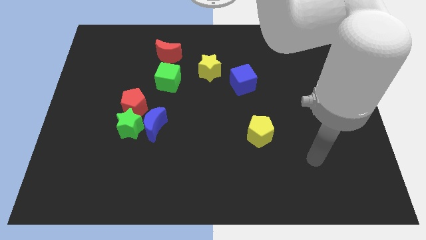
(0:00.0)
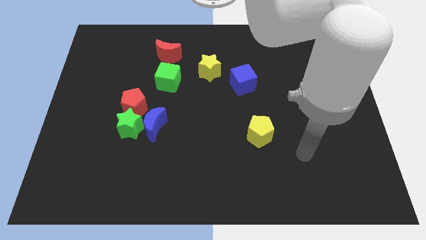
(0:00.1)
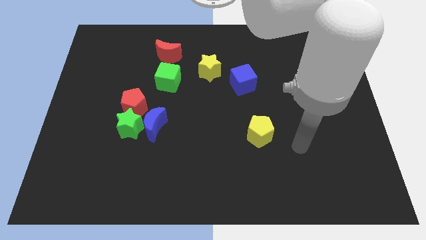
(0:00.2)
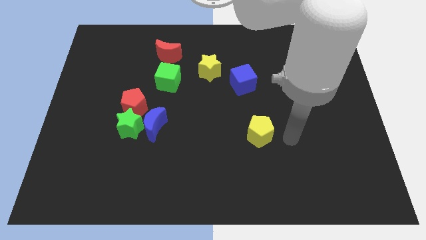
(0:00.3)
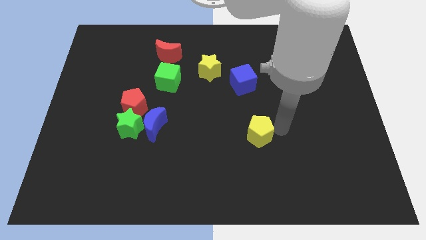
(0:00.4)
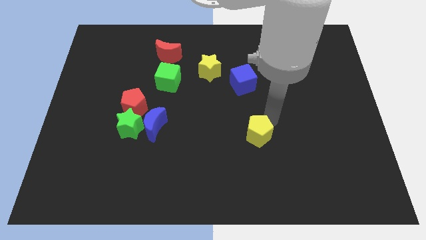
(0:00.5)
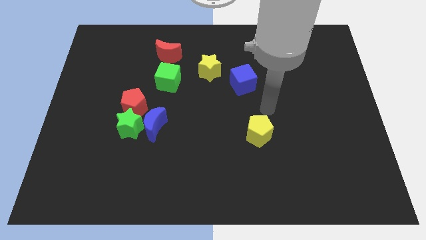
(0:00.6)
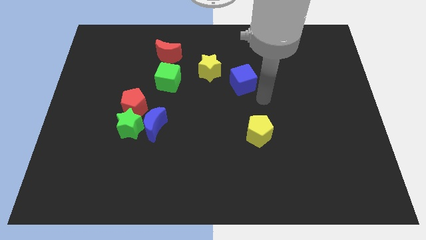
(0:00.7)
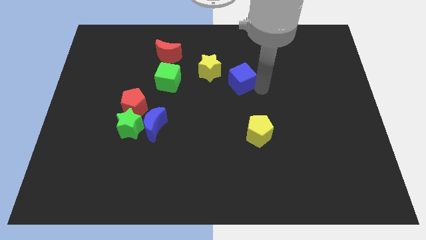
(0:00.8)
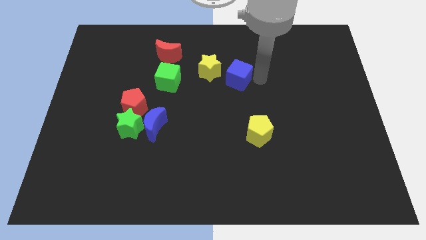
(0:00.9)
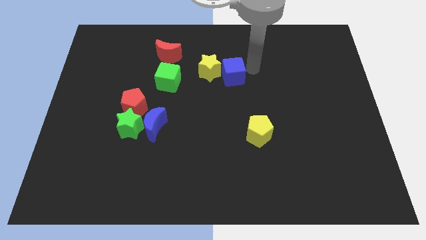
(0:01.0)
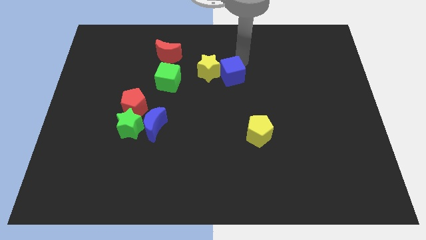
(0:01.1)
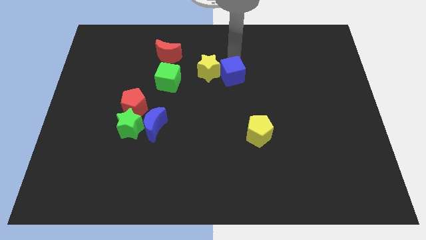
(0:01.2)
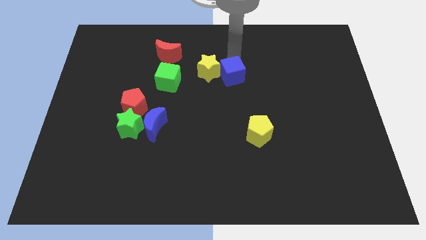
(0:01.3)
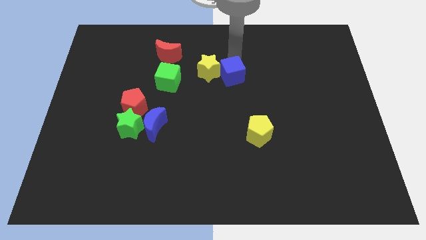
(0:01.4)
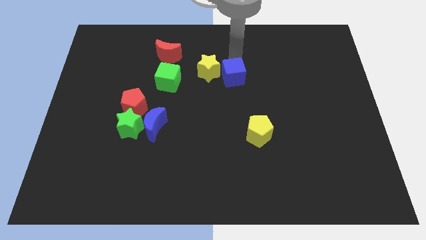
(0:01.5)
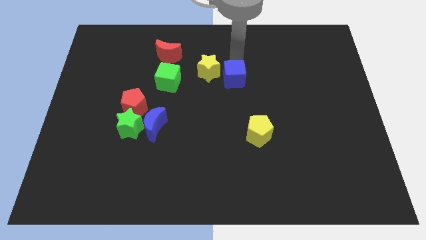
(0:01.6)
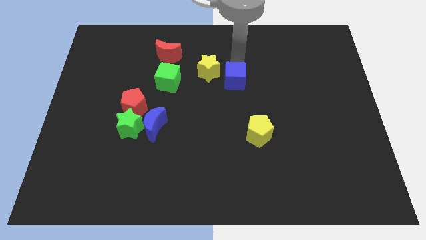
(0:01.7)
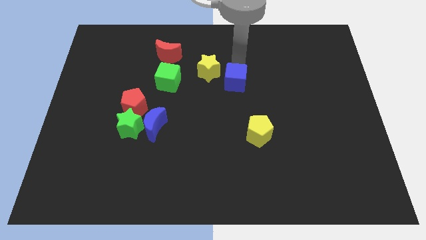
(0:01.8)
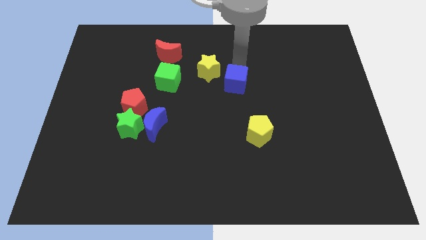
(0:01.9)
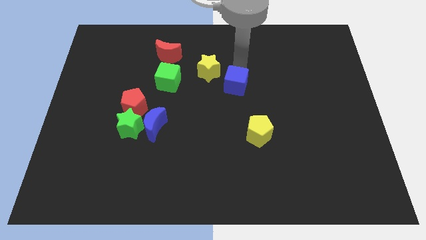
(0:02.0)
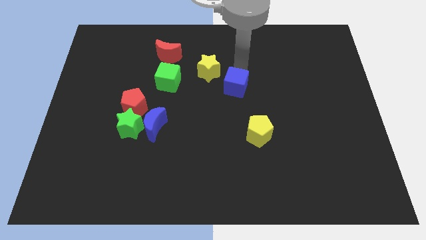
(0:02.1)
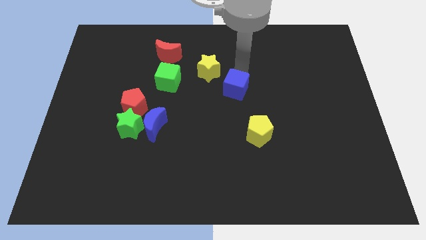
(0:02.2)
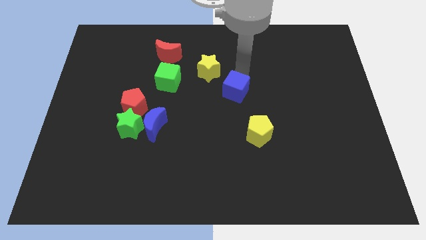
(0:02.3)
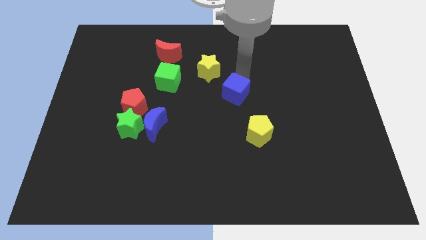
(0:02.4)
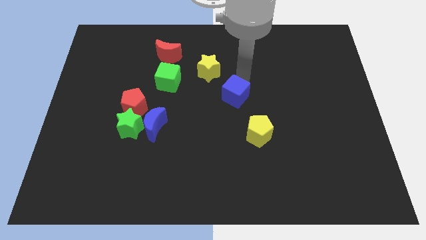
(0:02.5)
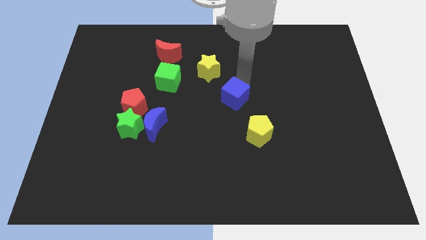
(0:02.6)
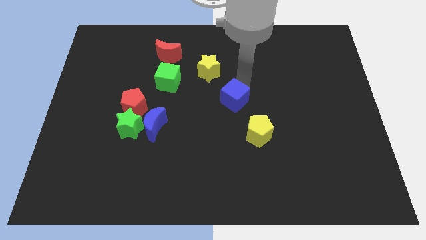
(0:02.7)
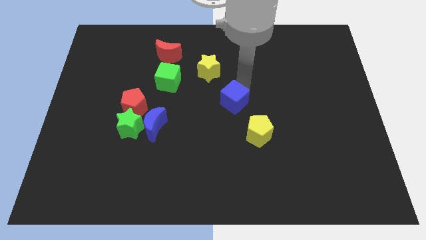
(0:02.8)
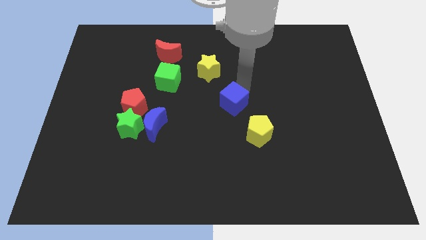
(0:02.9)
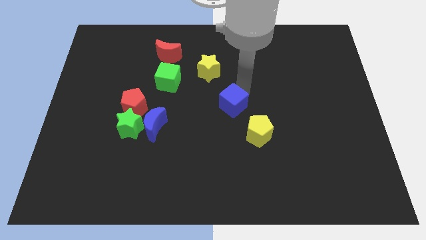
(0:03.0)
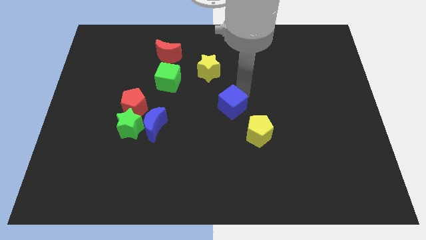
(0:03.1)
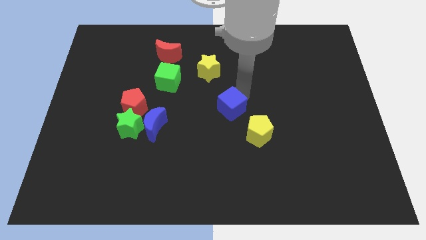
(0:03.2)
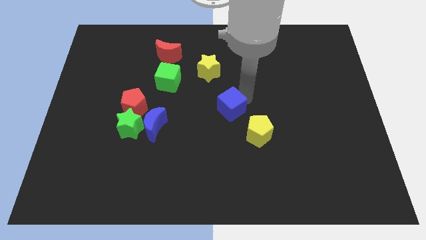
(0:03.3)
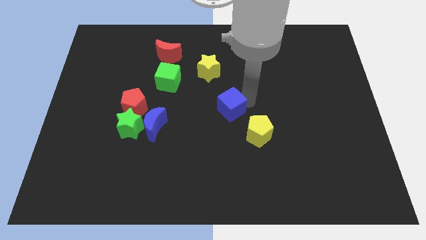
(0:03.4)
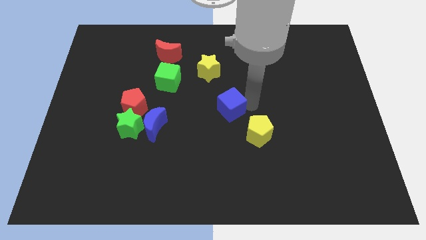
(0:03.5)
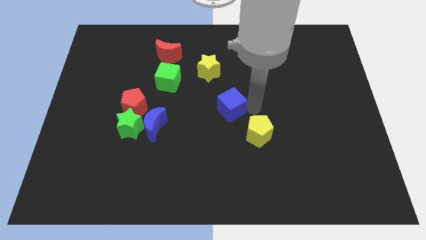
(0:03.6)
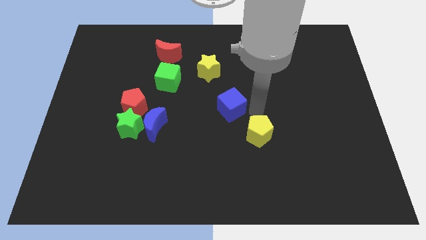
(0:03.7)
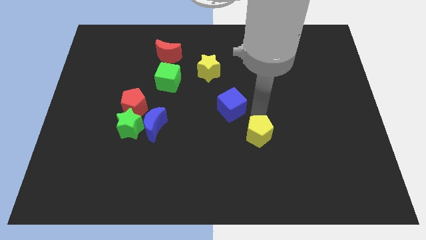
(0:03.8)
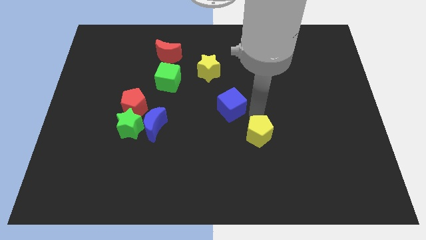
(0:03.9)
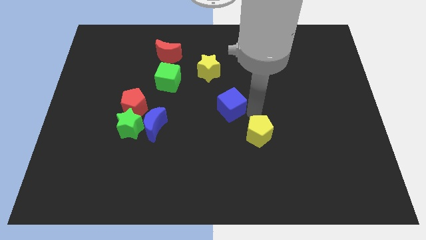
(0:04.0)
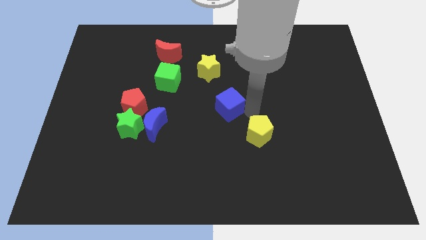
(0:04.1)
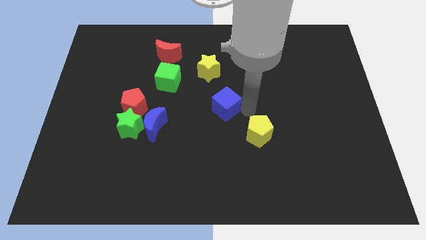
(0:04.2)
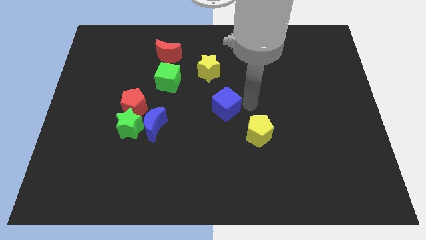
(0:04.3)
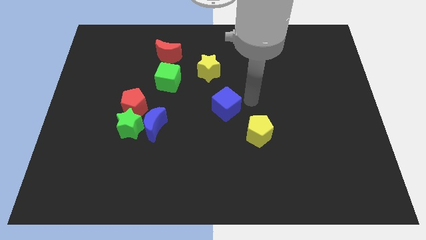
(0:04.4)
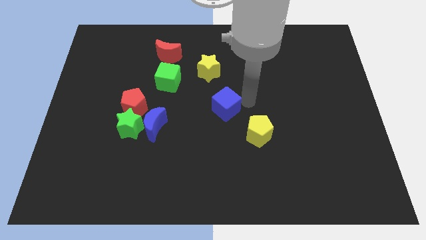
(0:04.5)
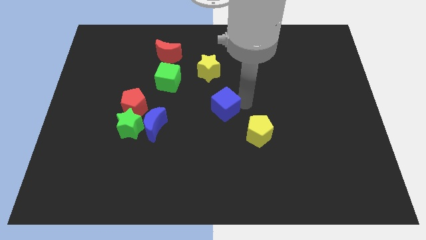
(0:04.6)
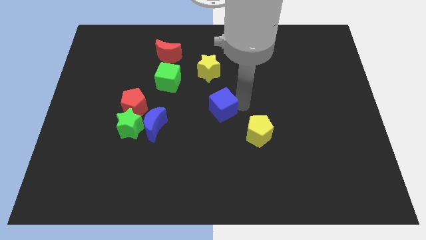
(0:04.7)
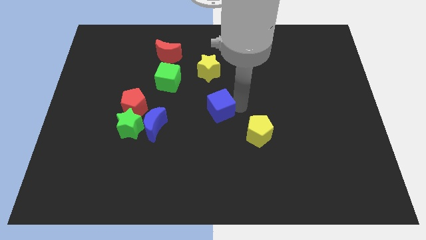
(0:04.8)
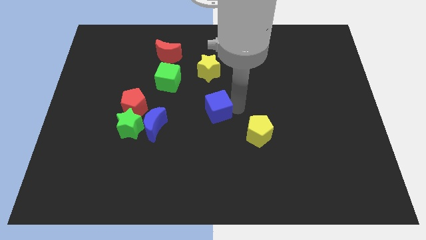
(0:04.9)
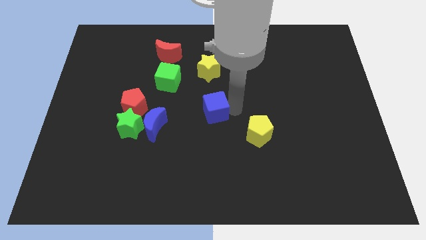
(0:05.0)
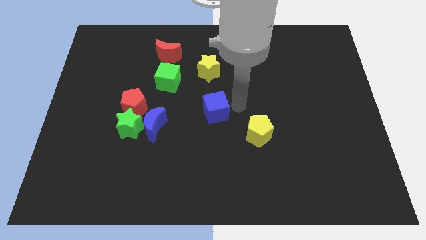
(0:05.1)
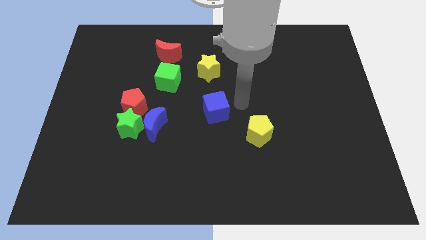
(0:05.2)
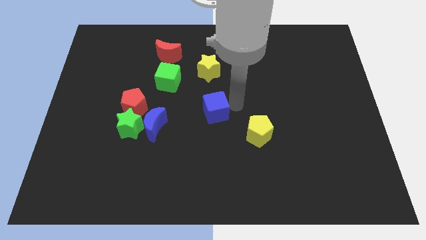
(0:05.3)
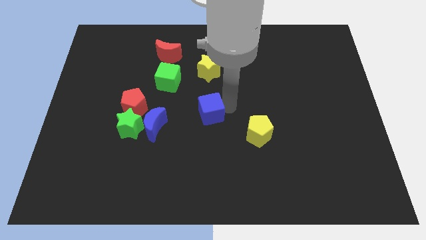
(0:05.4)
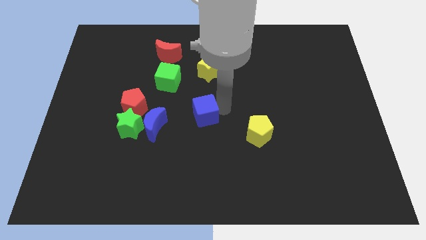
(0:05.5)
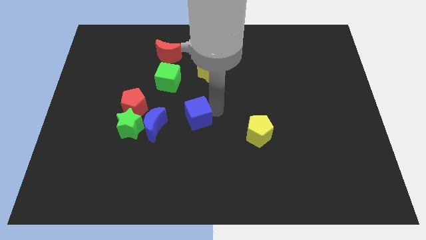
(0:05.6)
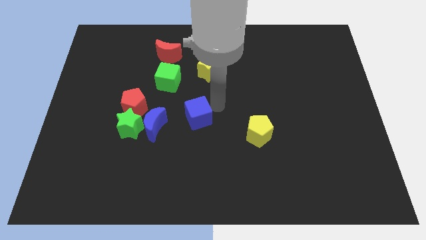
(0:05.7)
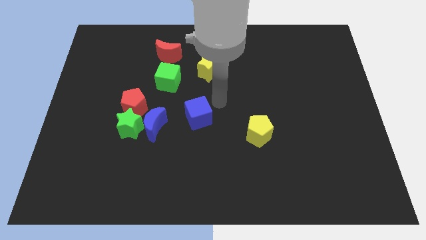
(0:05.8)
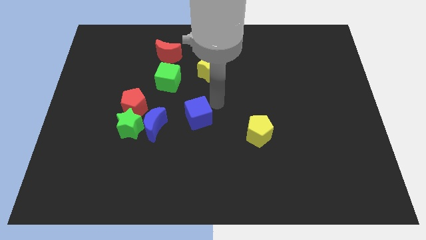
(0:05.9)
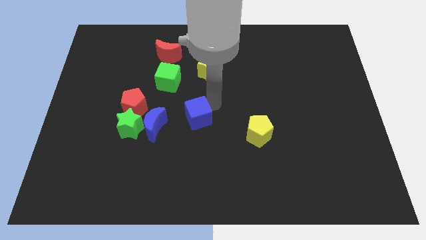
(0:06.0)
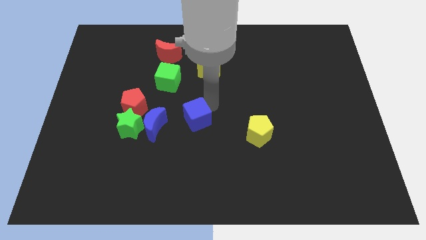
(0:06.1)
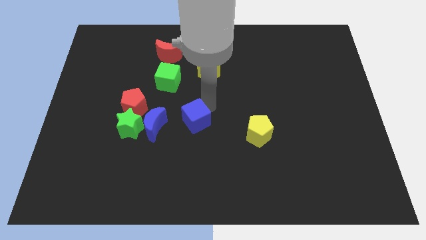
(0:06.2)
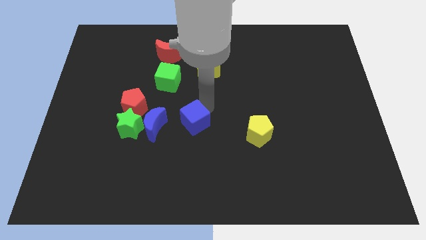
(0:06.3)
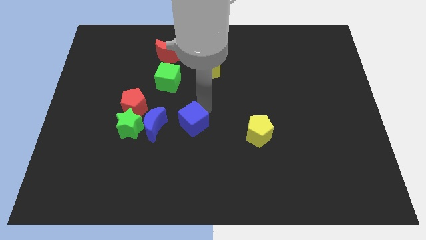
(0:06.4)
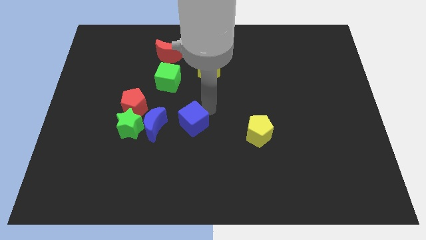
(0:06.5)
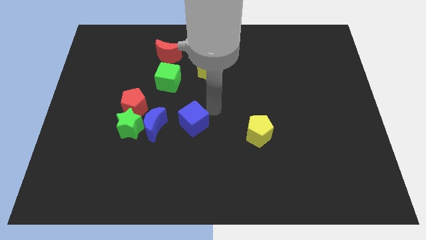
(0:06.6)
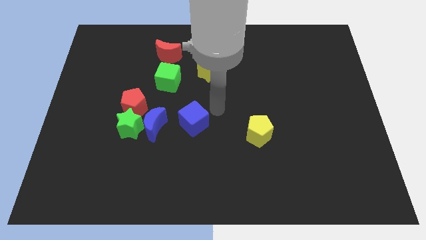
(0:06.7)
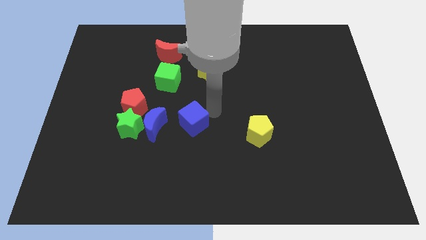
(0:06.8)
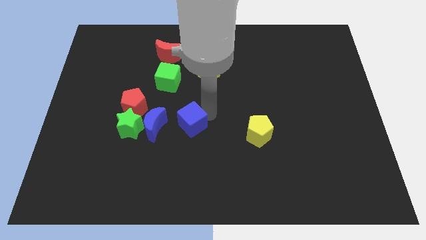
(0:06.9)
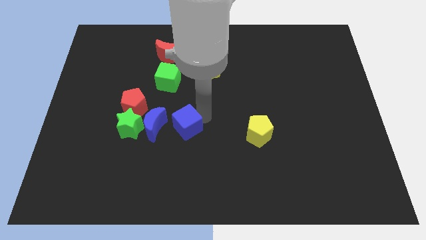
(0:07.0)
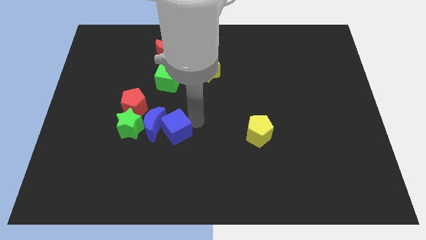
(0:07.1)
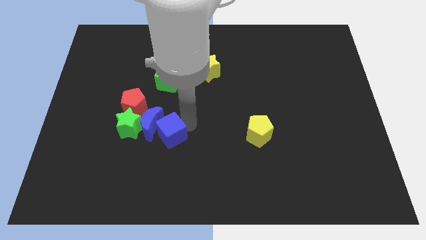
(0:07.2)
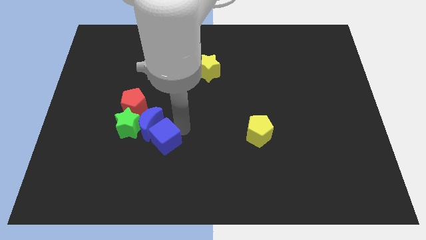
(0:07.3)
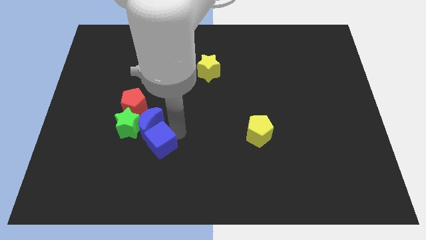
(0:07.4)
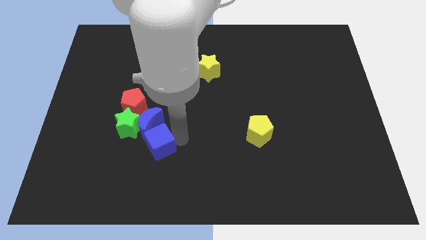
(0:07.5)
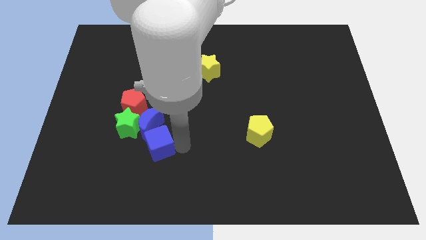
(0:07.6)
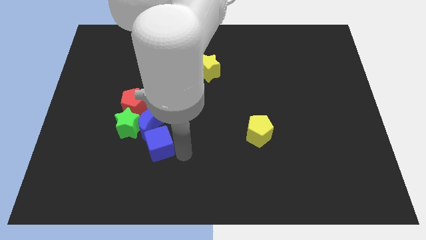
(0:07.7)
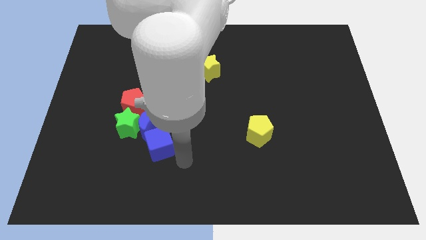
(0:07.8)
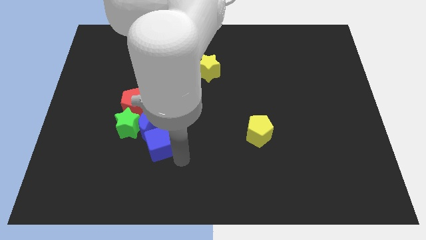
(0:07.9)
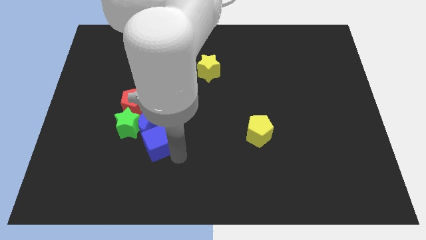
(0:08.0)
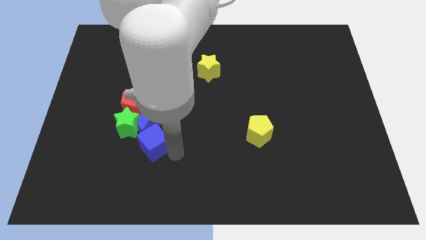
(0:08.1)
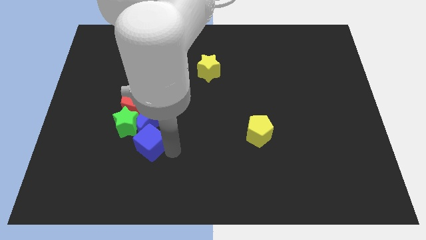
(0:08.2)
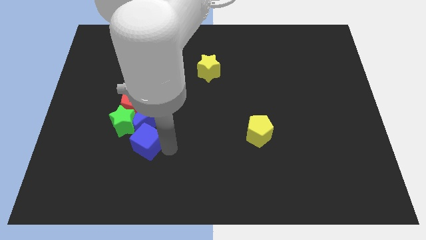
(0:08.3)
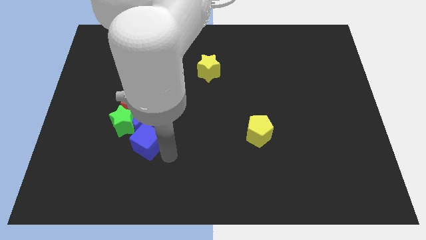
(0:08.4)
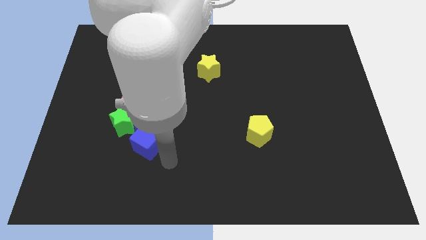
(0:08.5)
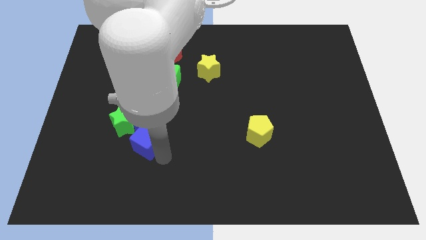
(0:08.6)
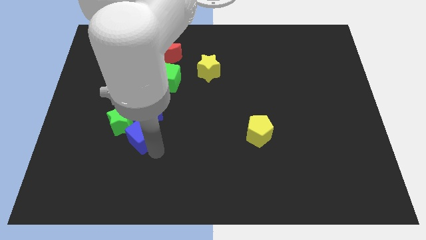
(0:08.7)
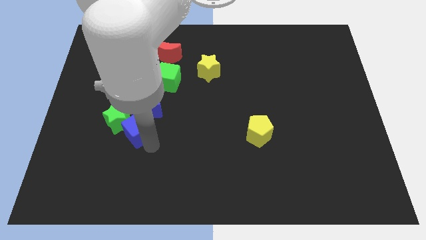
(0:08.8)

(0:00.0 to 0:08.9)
push the blue cube next to the green star
